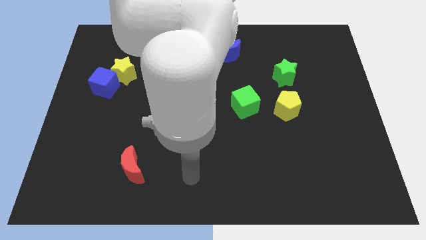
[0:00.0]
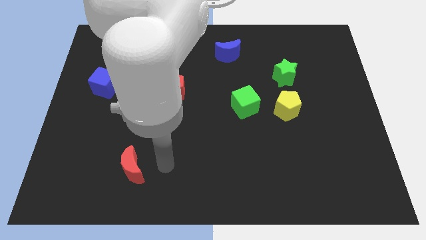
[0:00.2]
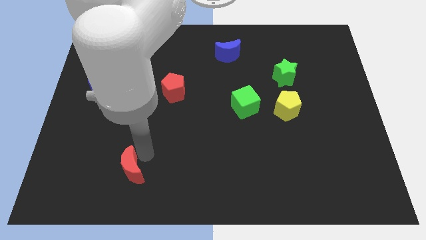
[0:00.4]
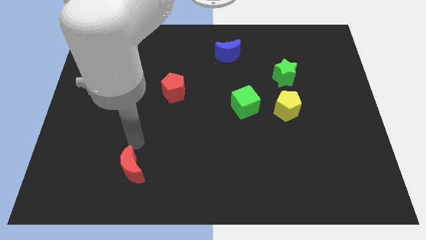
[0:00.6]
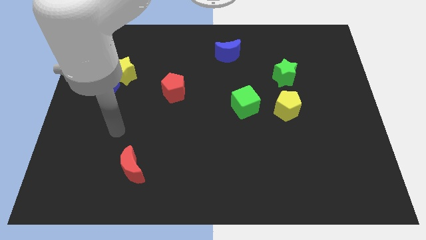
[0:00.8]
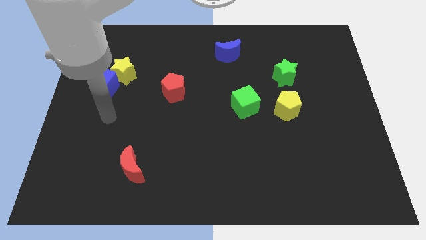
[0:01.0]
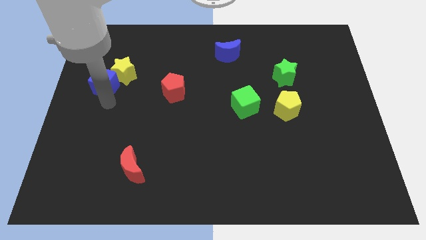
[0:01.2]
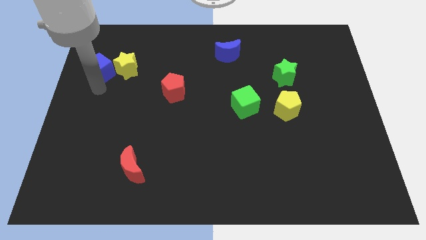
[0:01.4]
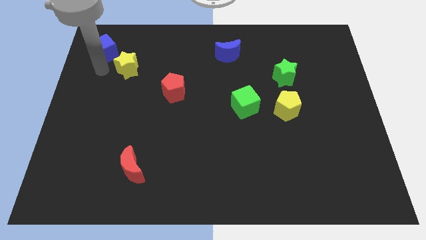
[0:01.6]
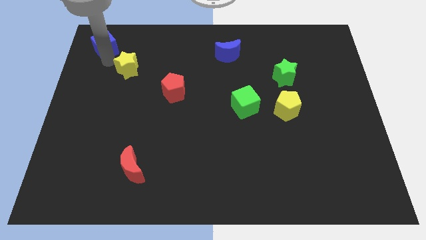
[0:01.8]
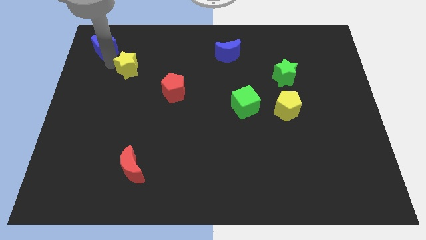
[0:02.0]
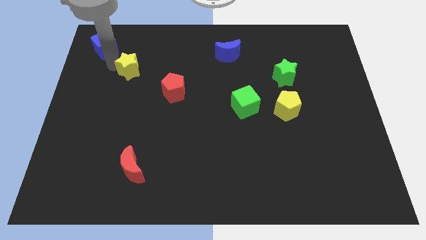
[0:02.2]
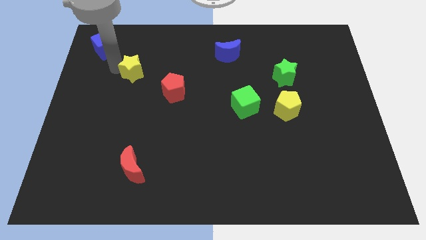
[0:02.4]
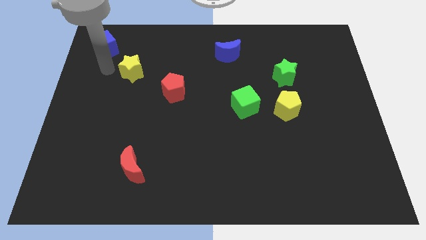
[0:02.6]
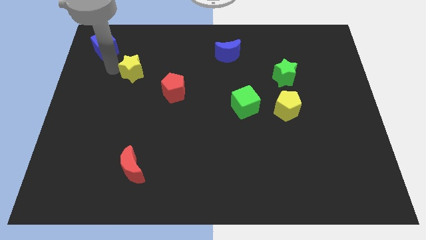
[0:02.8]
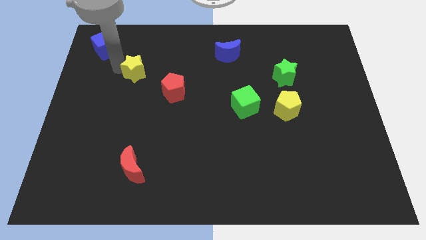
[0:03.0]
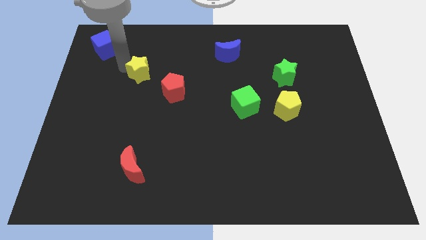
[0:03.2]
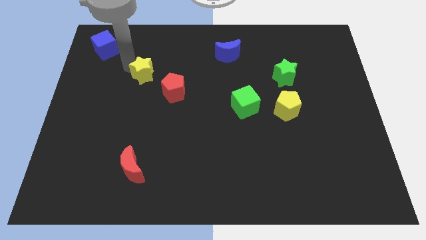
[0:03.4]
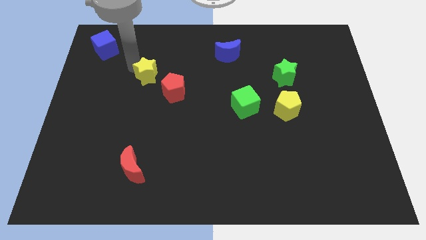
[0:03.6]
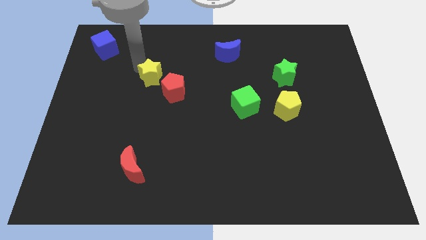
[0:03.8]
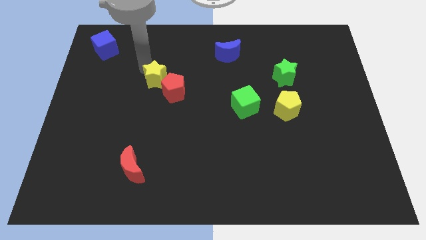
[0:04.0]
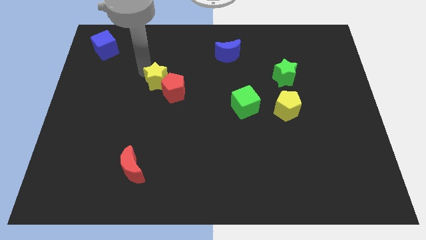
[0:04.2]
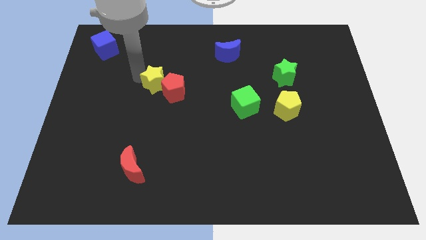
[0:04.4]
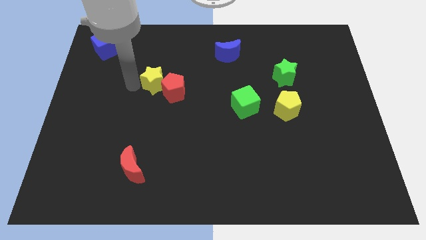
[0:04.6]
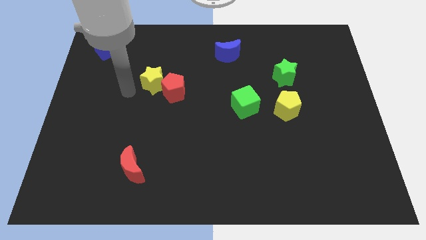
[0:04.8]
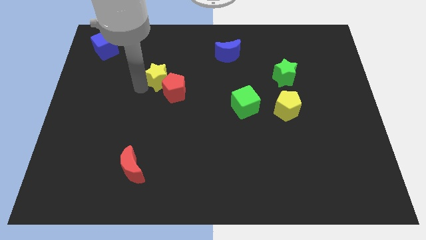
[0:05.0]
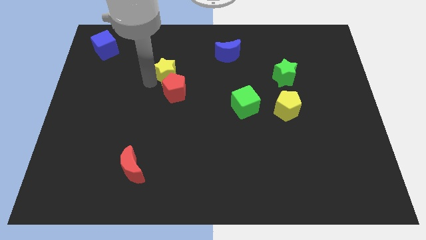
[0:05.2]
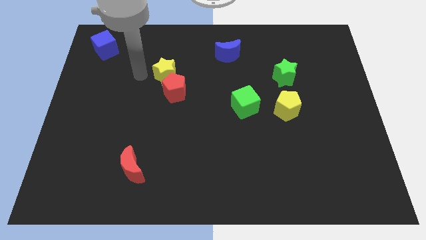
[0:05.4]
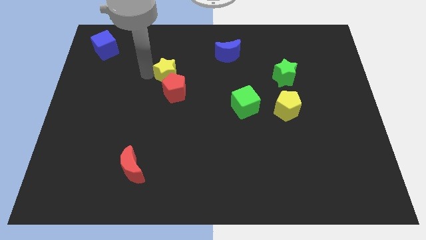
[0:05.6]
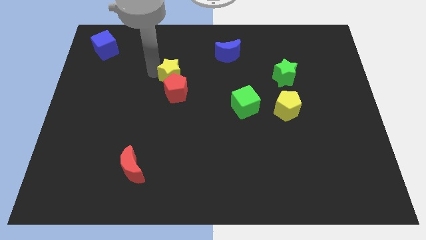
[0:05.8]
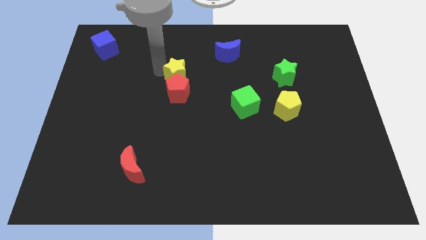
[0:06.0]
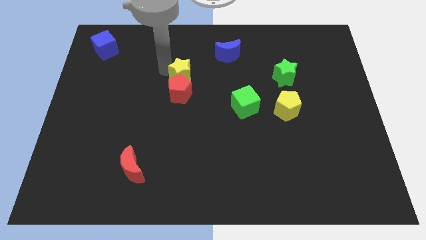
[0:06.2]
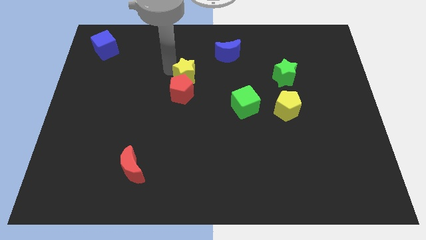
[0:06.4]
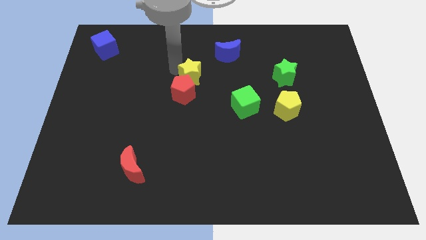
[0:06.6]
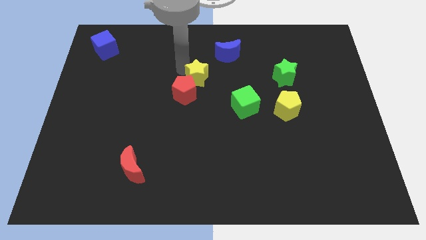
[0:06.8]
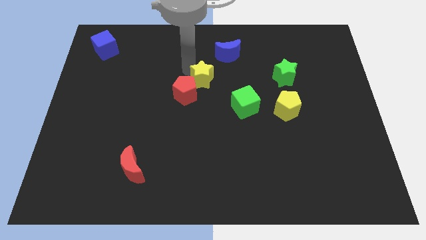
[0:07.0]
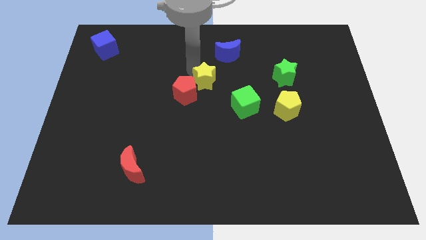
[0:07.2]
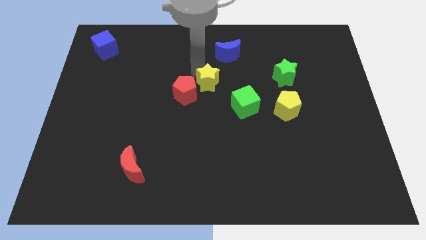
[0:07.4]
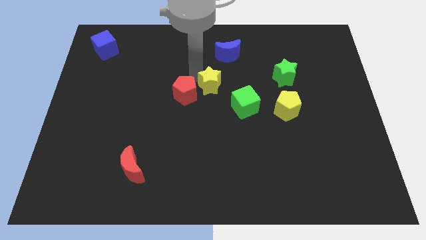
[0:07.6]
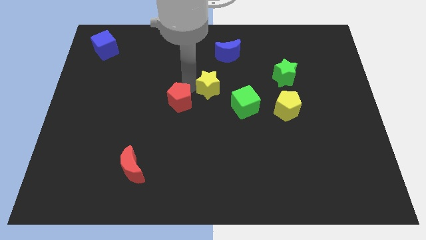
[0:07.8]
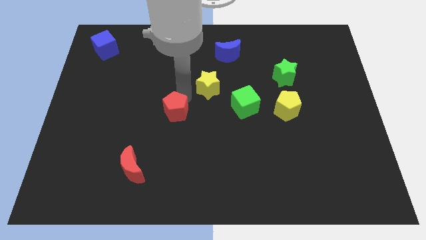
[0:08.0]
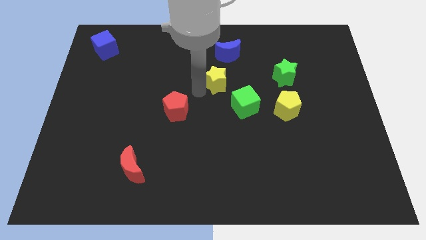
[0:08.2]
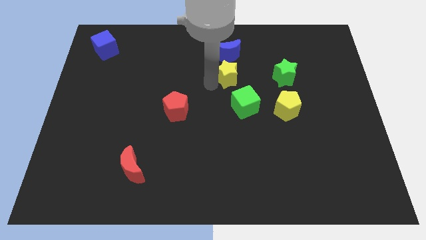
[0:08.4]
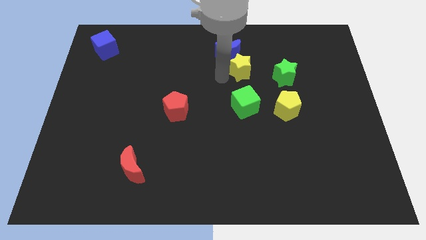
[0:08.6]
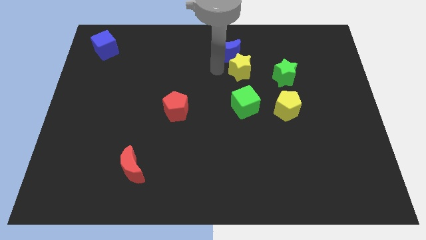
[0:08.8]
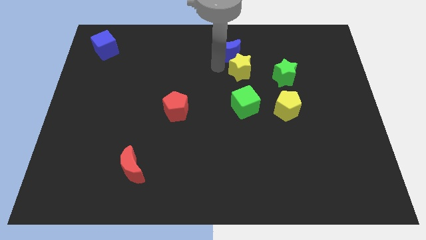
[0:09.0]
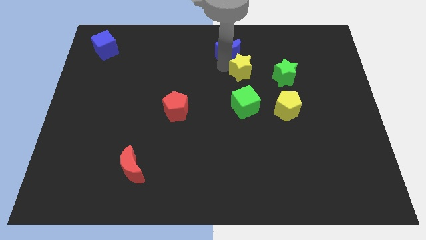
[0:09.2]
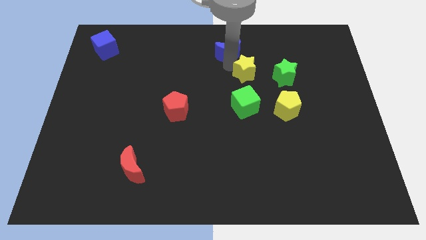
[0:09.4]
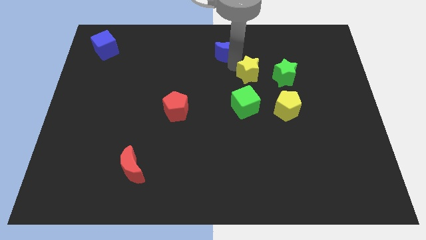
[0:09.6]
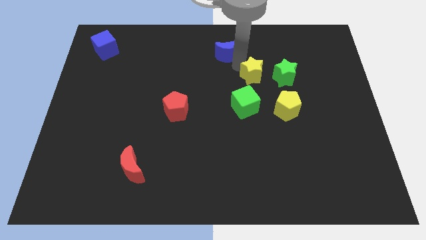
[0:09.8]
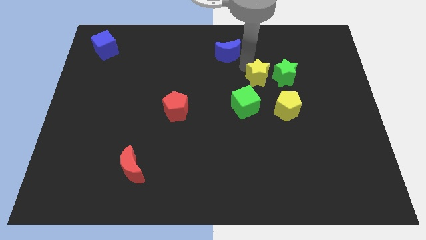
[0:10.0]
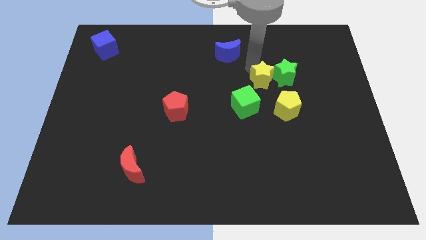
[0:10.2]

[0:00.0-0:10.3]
slide the yellow star next to the green star
